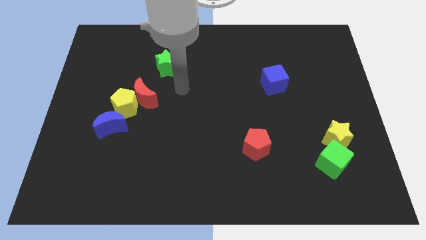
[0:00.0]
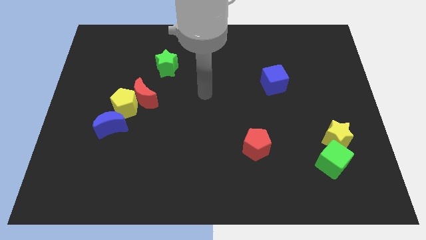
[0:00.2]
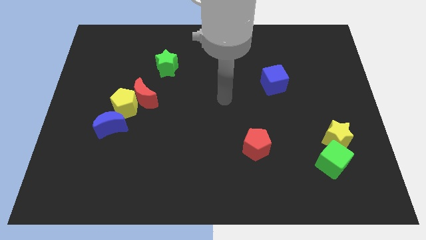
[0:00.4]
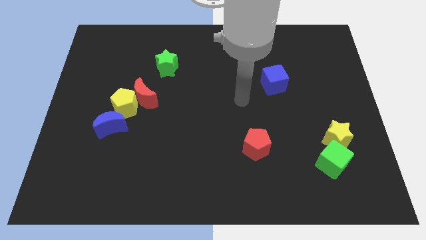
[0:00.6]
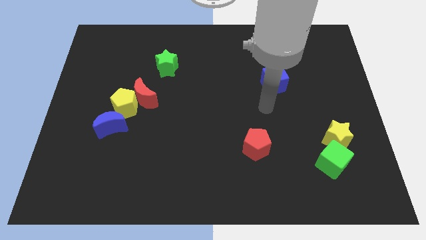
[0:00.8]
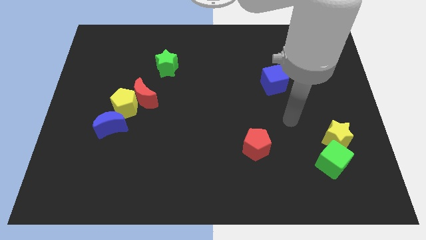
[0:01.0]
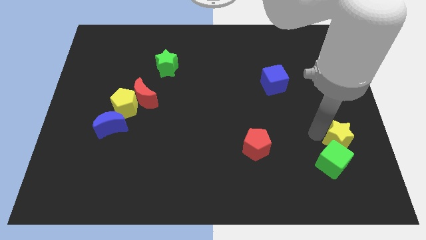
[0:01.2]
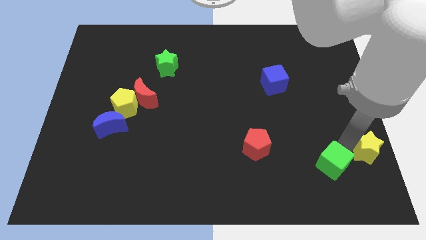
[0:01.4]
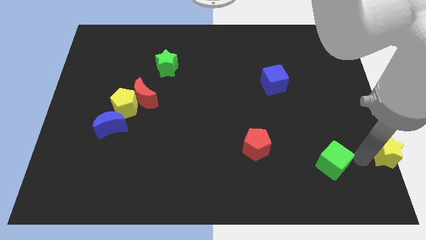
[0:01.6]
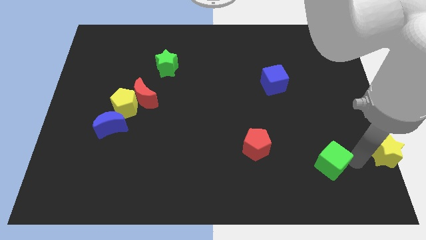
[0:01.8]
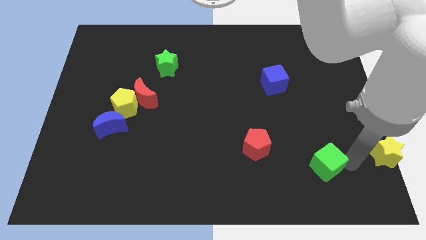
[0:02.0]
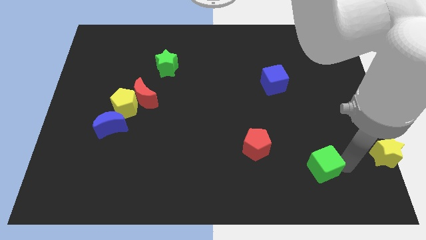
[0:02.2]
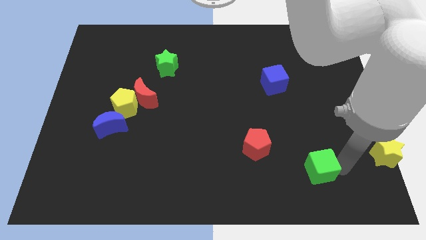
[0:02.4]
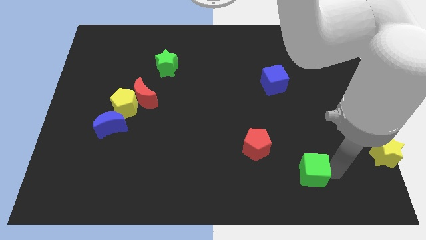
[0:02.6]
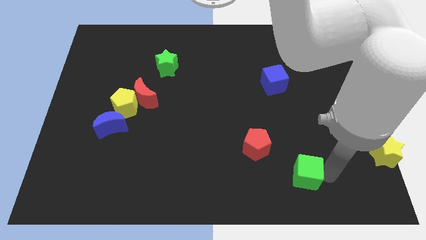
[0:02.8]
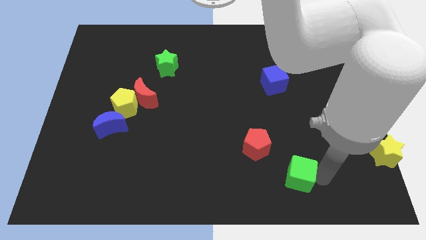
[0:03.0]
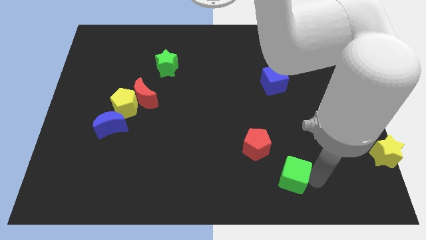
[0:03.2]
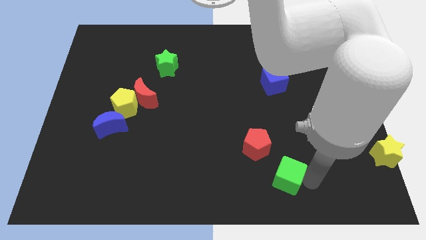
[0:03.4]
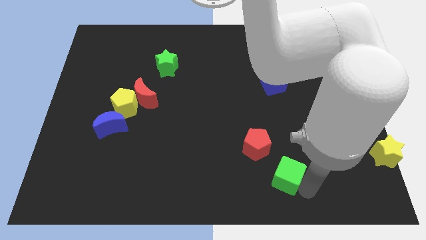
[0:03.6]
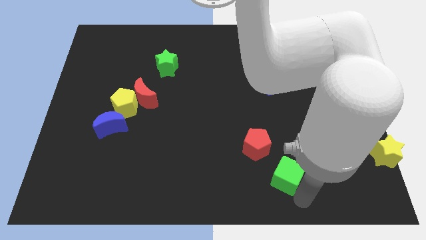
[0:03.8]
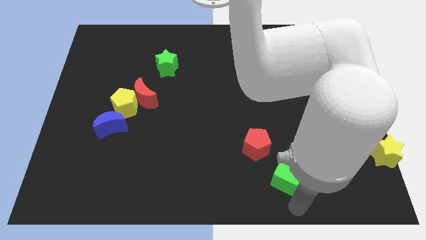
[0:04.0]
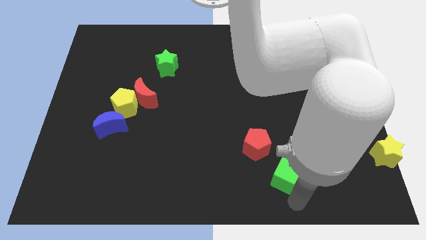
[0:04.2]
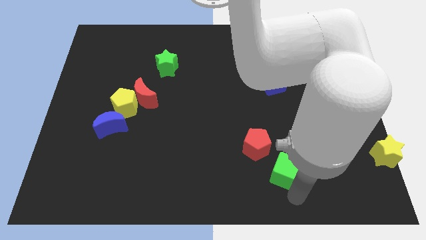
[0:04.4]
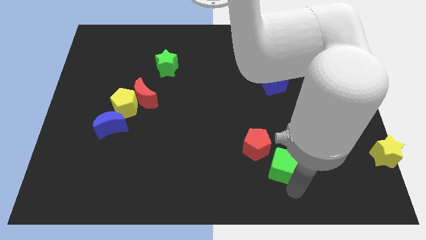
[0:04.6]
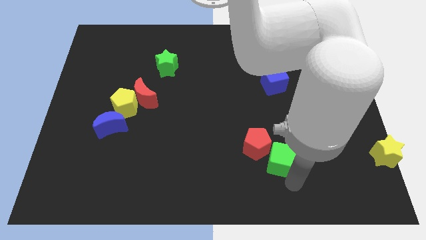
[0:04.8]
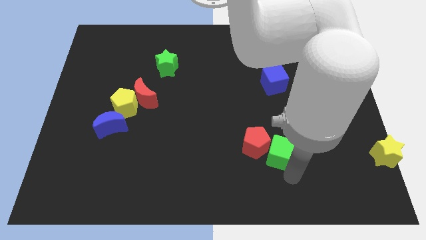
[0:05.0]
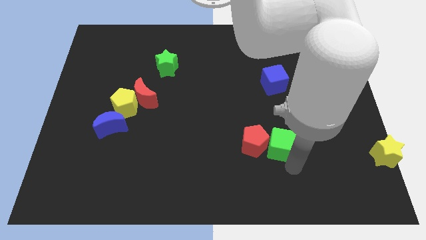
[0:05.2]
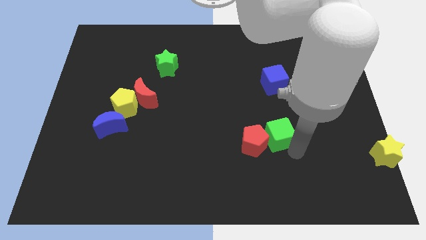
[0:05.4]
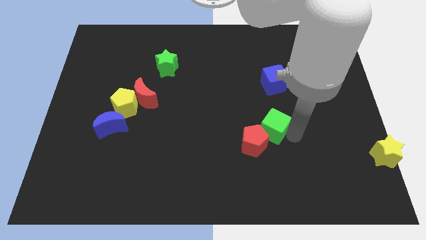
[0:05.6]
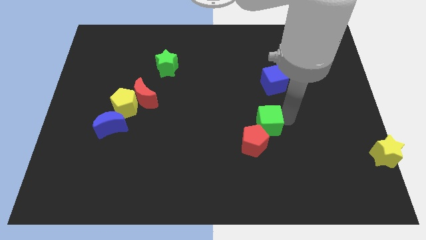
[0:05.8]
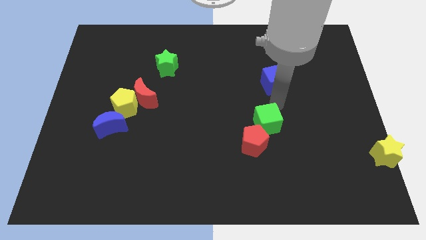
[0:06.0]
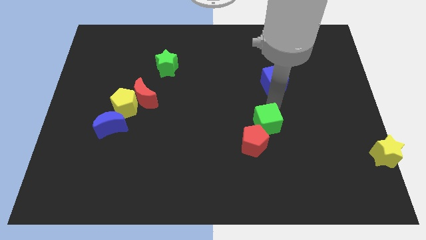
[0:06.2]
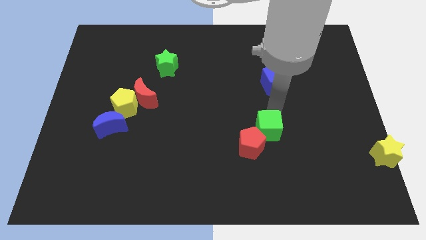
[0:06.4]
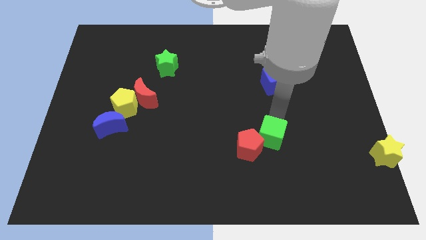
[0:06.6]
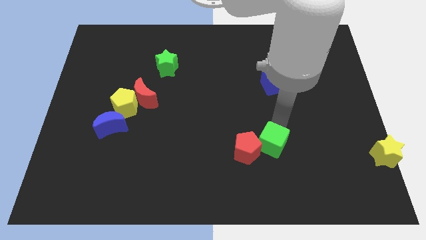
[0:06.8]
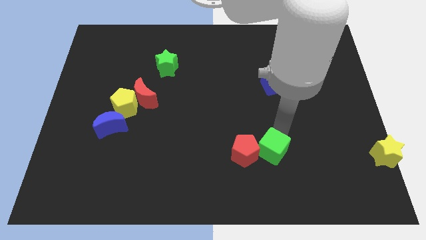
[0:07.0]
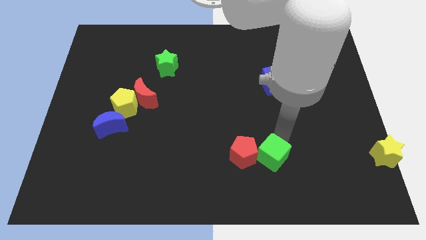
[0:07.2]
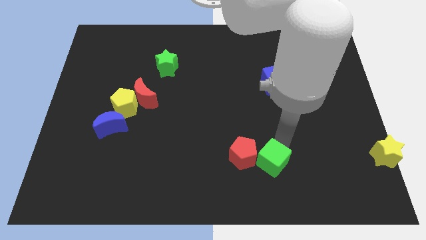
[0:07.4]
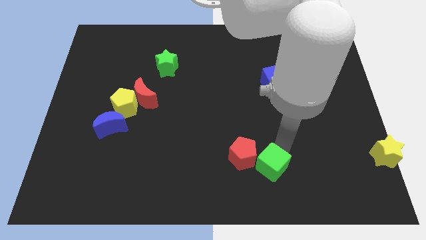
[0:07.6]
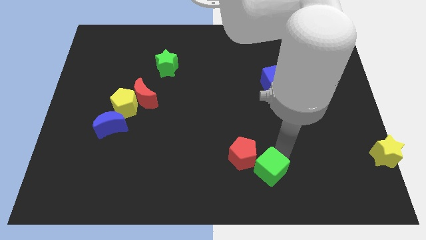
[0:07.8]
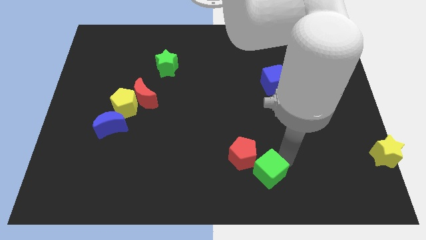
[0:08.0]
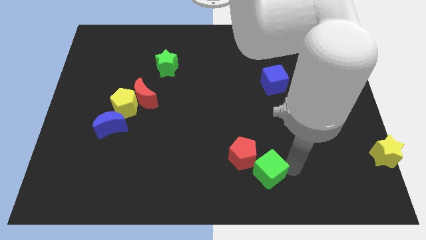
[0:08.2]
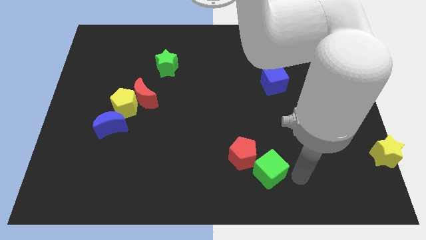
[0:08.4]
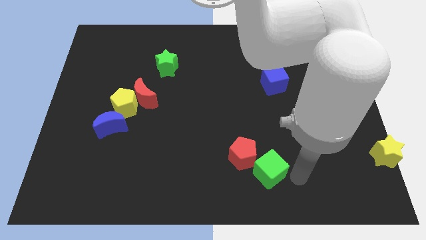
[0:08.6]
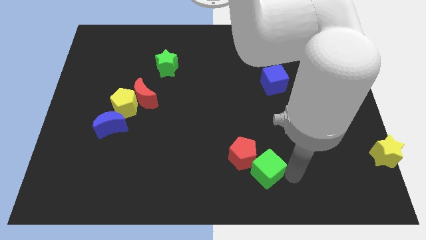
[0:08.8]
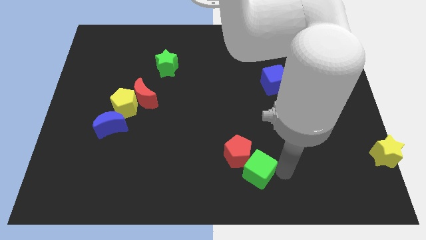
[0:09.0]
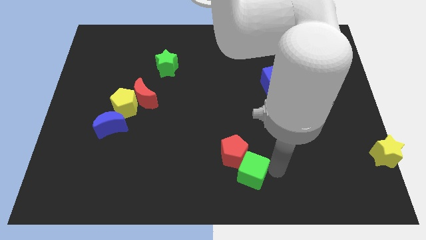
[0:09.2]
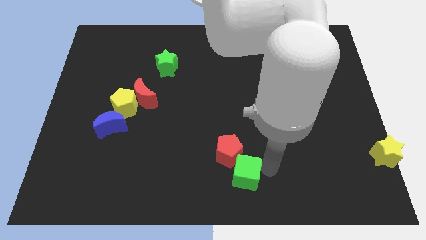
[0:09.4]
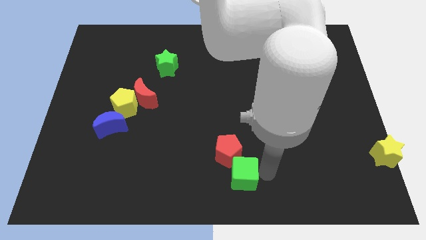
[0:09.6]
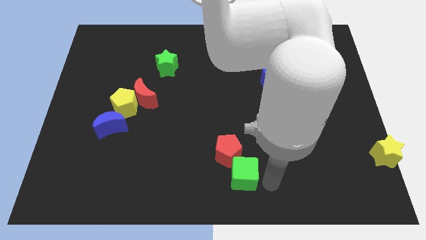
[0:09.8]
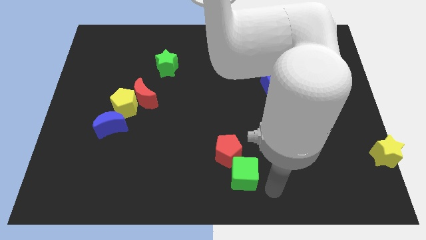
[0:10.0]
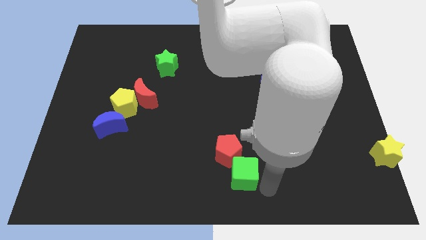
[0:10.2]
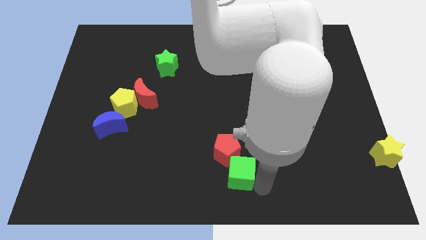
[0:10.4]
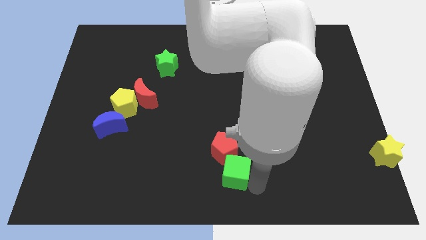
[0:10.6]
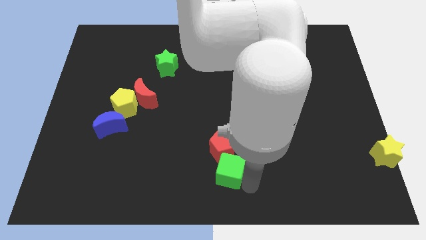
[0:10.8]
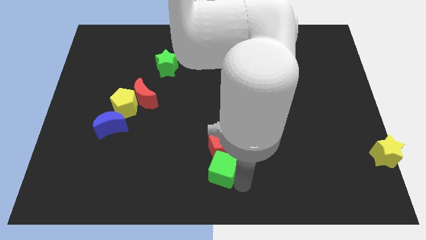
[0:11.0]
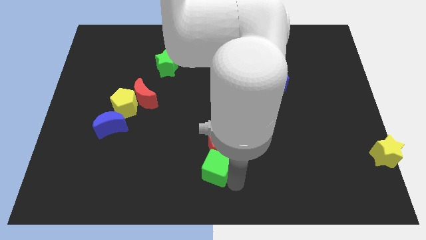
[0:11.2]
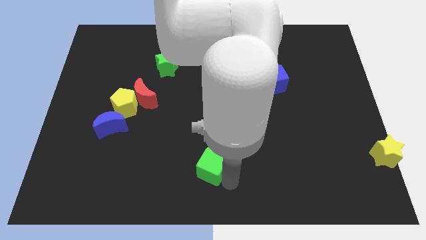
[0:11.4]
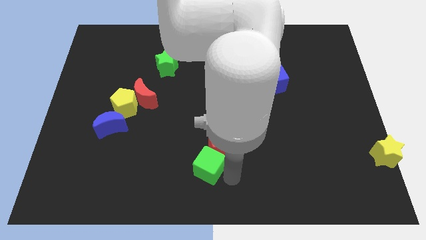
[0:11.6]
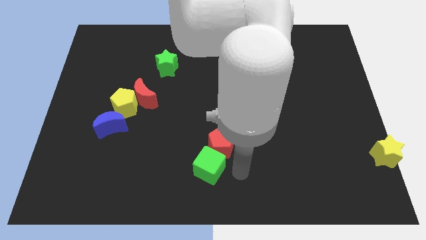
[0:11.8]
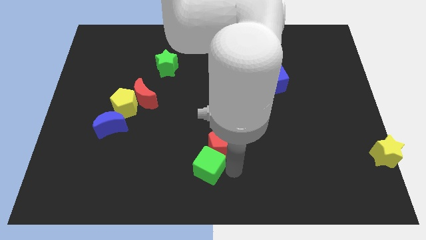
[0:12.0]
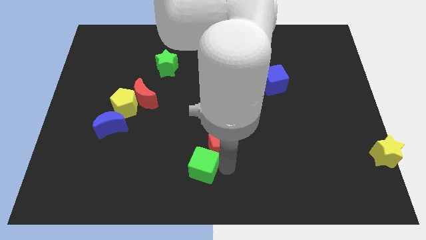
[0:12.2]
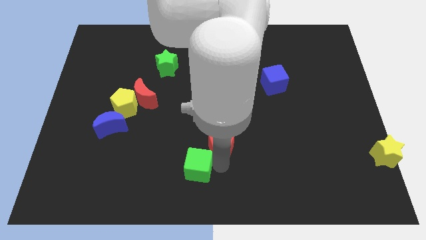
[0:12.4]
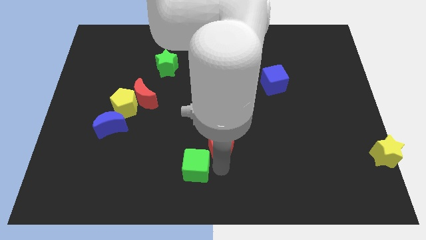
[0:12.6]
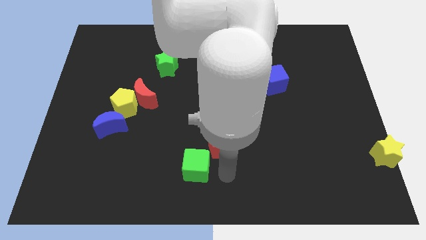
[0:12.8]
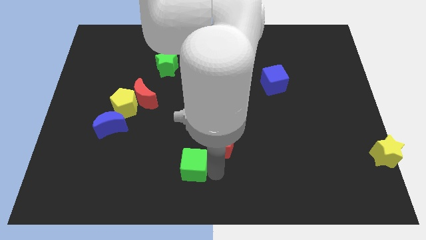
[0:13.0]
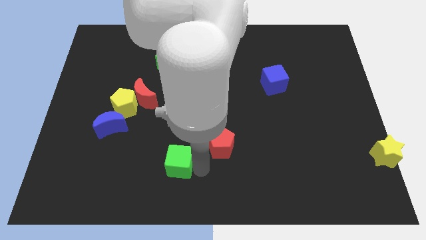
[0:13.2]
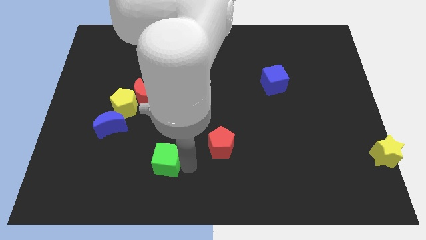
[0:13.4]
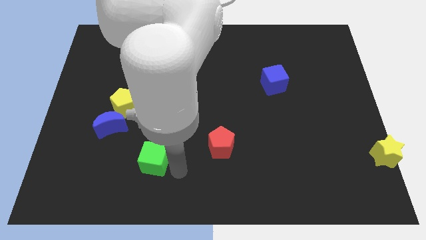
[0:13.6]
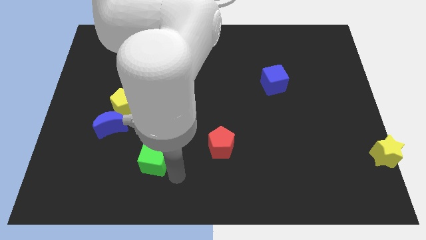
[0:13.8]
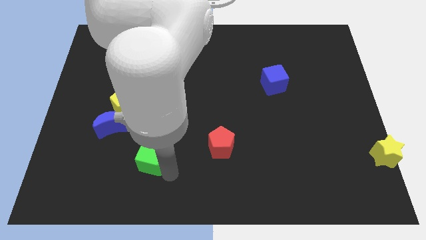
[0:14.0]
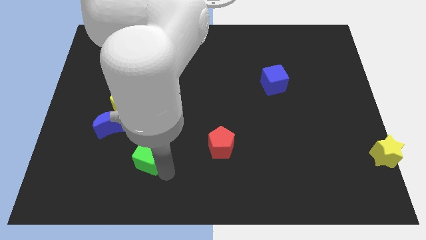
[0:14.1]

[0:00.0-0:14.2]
put the green cube to the bottom right side of the blue moon
